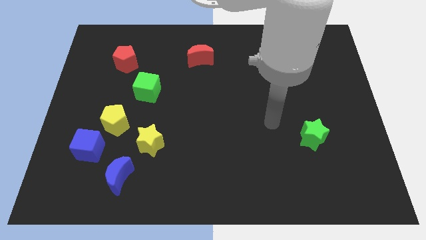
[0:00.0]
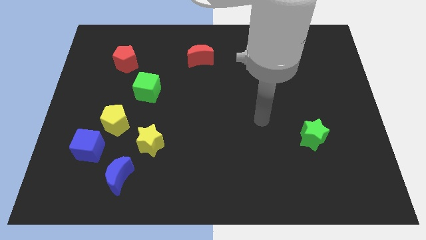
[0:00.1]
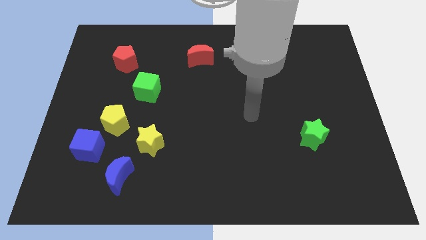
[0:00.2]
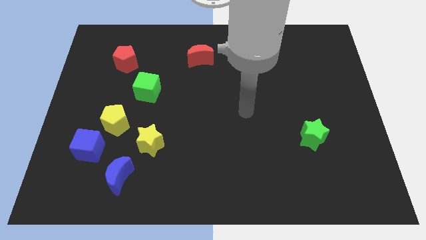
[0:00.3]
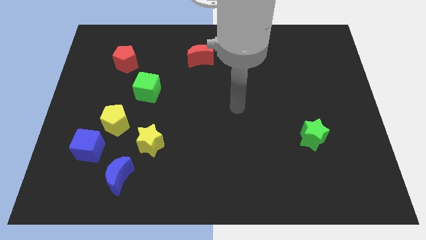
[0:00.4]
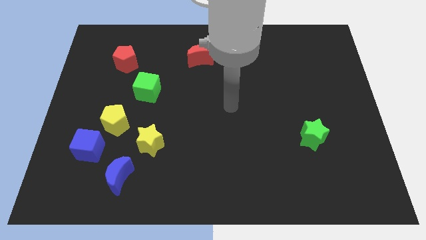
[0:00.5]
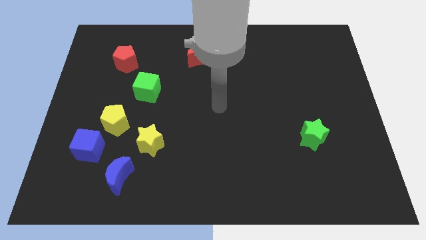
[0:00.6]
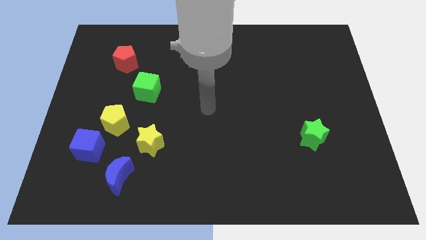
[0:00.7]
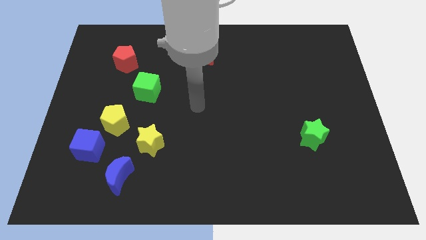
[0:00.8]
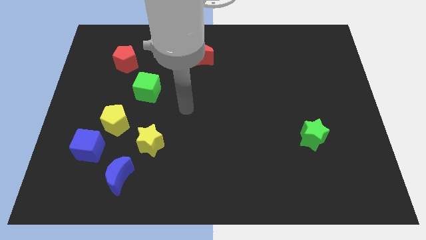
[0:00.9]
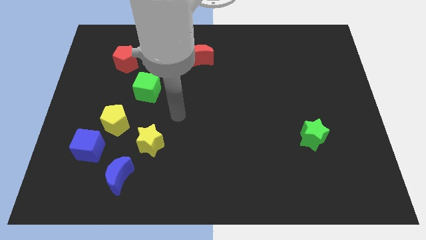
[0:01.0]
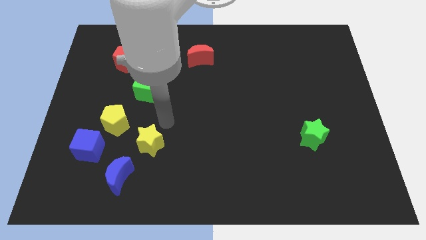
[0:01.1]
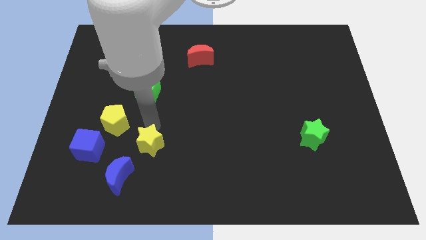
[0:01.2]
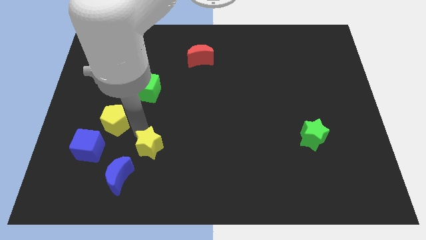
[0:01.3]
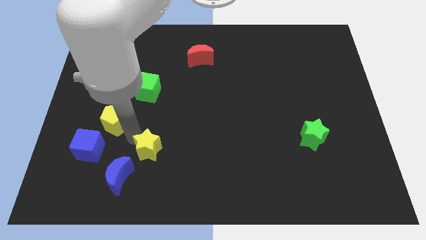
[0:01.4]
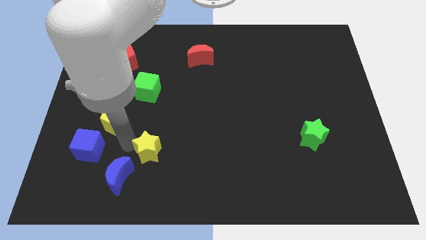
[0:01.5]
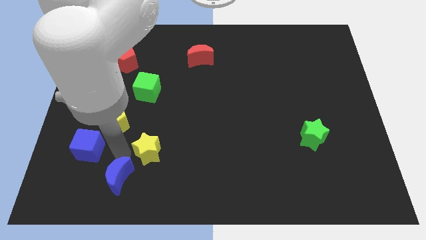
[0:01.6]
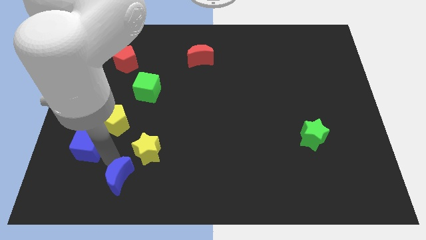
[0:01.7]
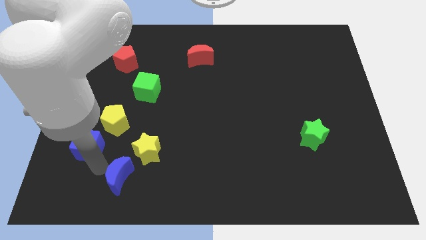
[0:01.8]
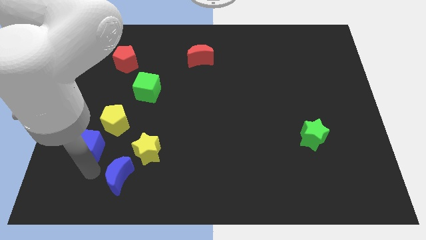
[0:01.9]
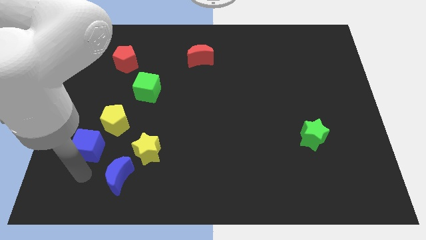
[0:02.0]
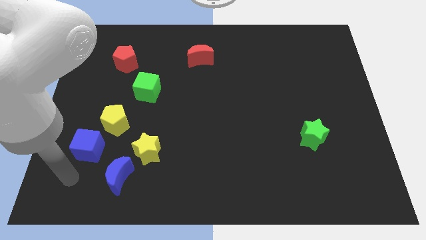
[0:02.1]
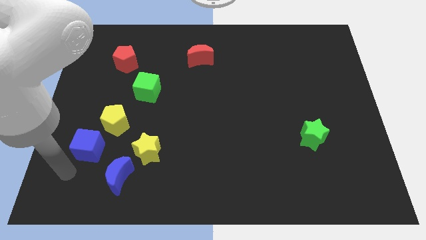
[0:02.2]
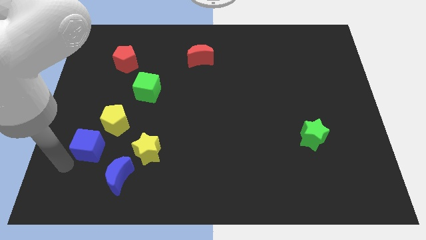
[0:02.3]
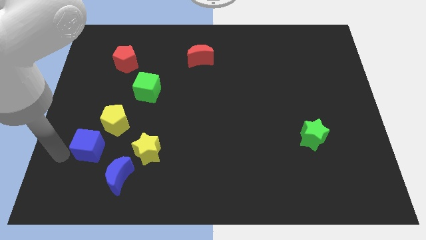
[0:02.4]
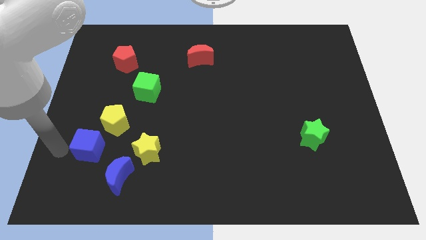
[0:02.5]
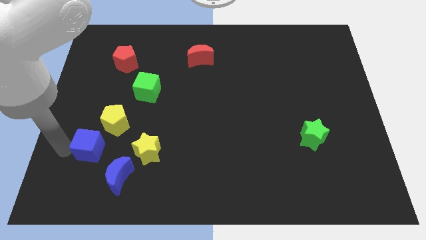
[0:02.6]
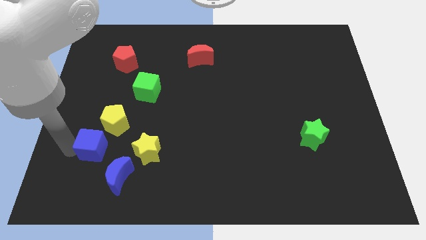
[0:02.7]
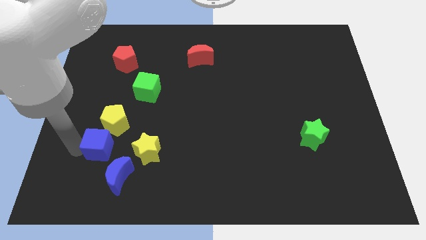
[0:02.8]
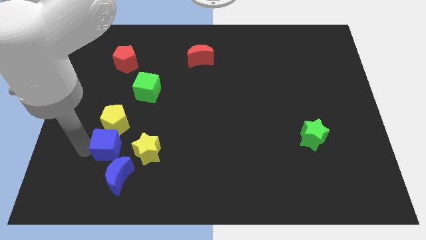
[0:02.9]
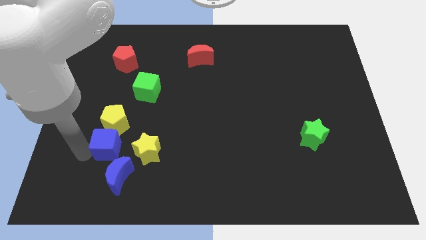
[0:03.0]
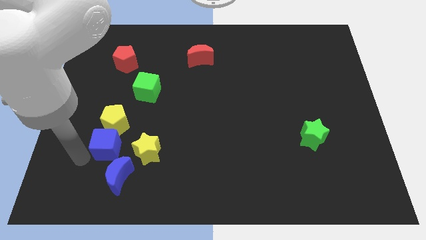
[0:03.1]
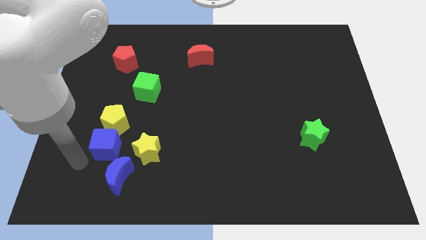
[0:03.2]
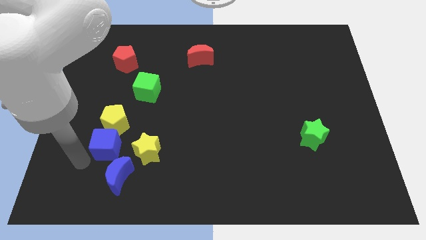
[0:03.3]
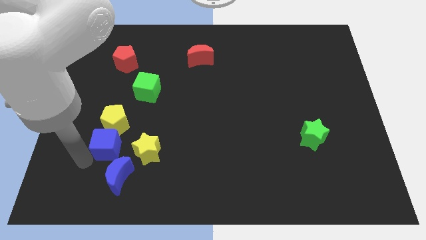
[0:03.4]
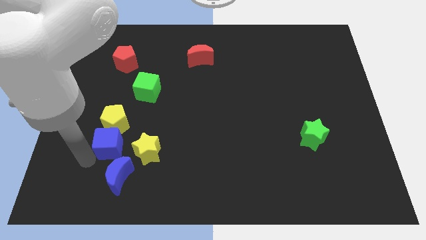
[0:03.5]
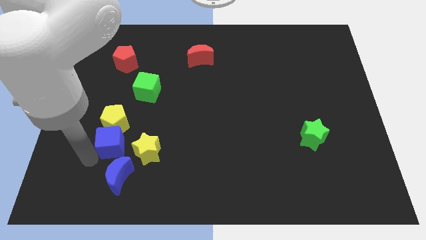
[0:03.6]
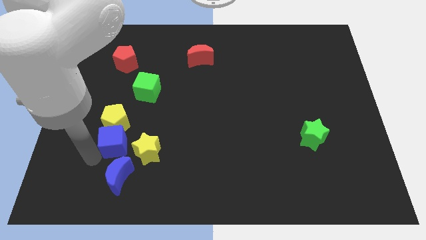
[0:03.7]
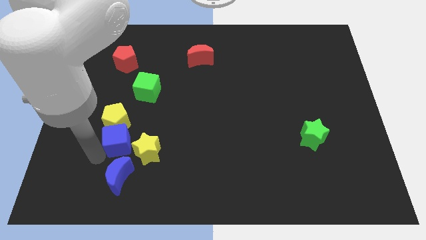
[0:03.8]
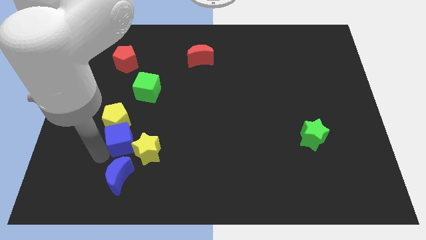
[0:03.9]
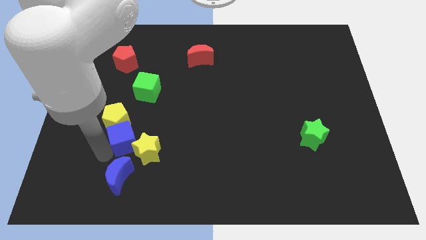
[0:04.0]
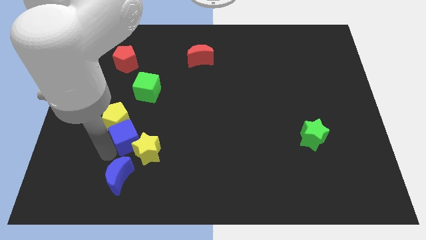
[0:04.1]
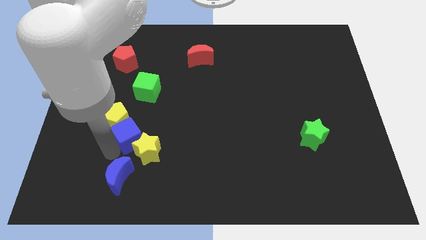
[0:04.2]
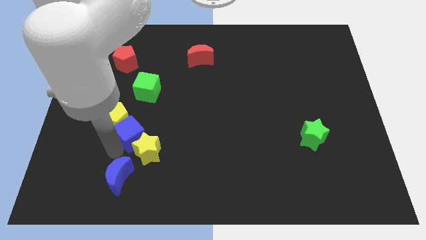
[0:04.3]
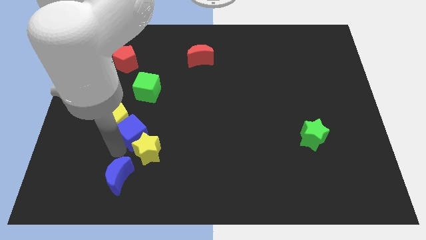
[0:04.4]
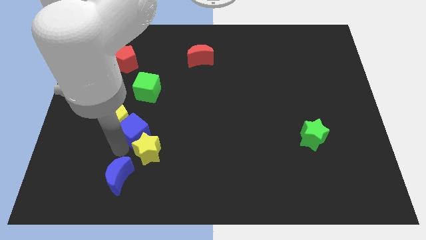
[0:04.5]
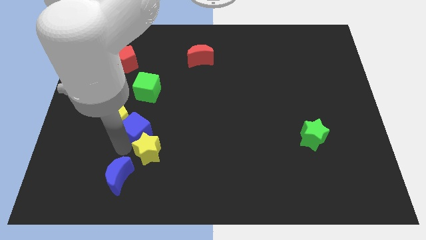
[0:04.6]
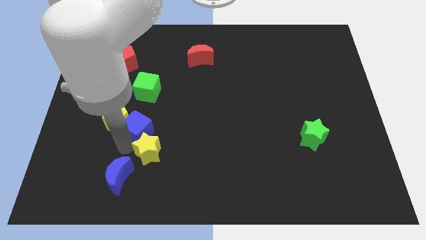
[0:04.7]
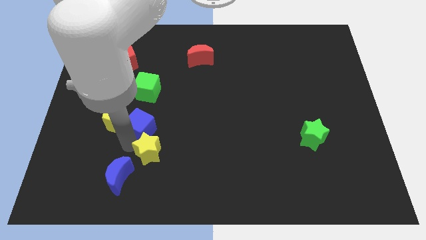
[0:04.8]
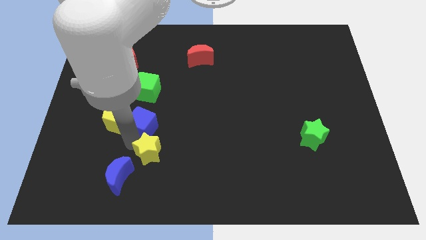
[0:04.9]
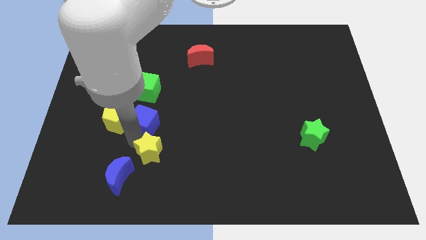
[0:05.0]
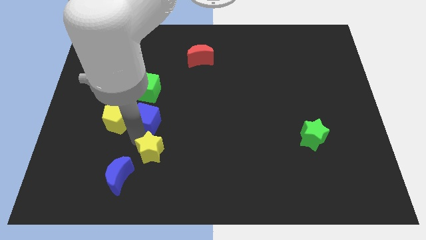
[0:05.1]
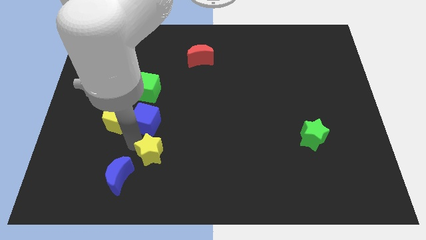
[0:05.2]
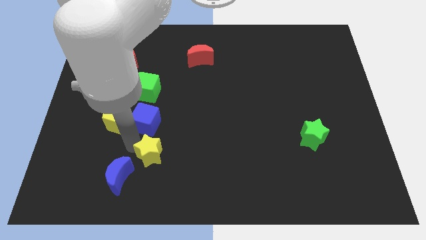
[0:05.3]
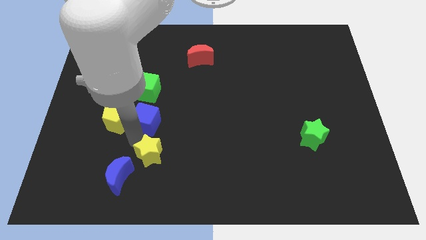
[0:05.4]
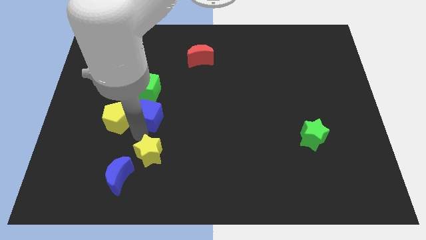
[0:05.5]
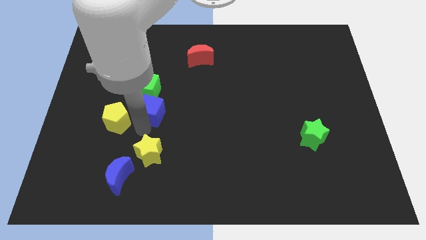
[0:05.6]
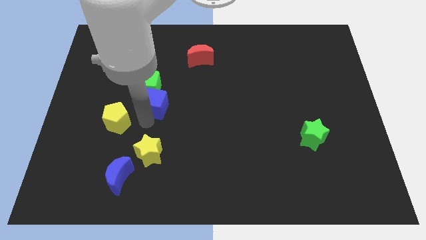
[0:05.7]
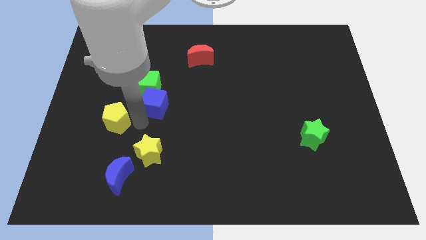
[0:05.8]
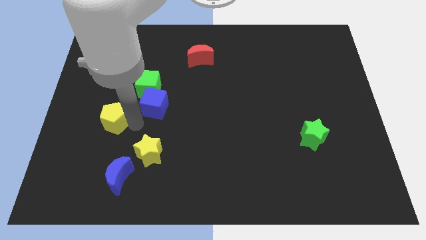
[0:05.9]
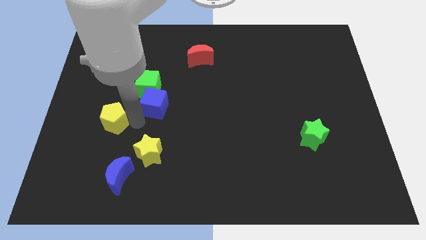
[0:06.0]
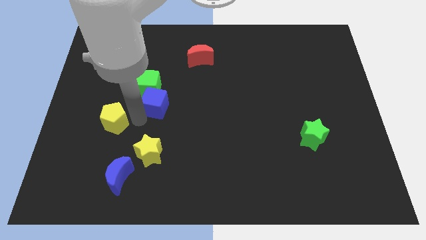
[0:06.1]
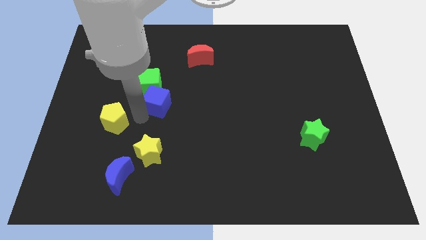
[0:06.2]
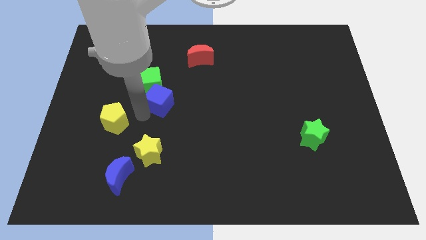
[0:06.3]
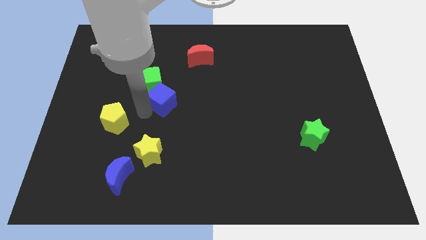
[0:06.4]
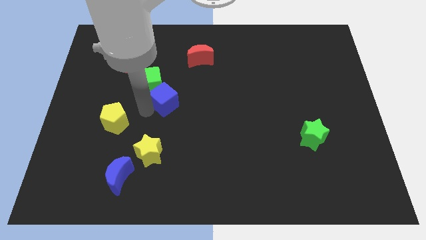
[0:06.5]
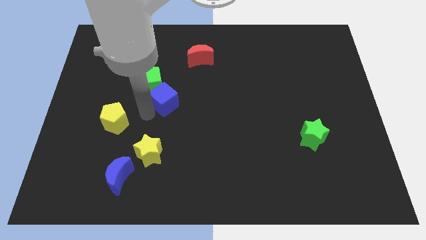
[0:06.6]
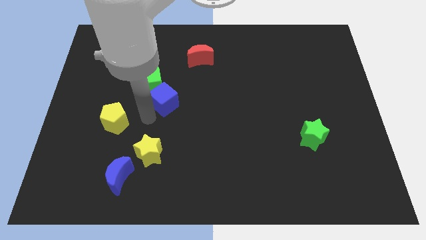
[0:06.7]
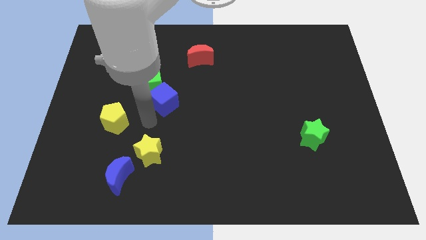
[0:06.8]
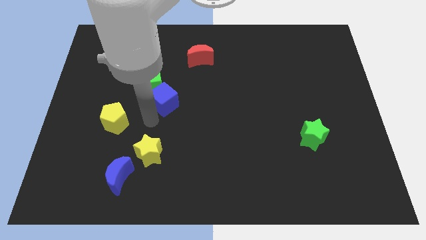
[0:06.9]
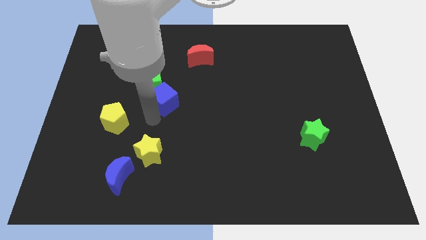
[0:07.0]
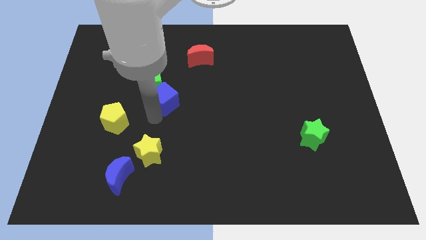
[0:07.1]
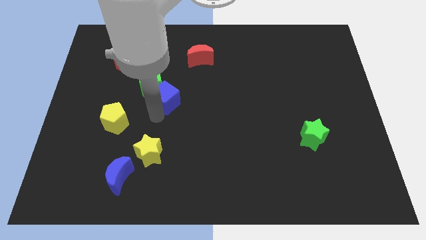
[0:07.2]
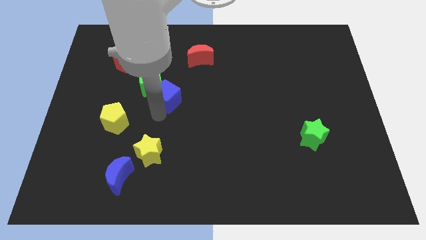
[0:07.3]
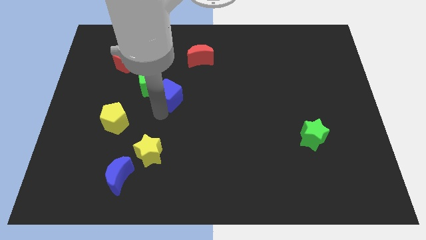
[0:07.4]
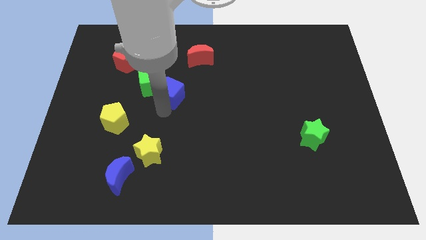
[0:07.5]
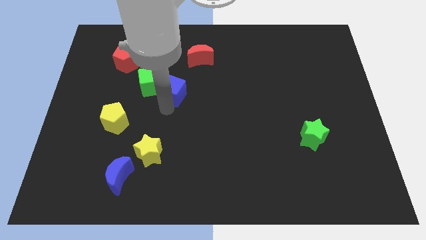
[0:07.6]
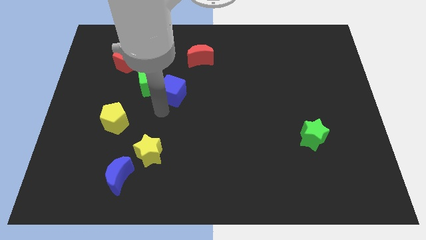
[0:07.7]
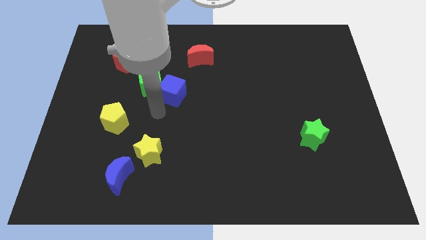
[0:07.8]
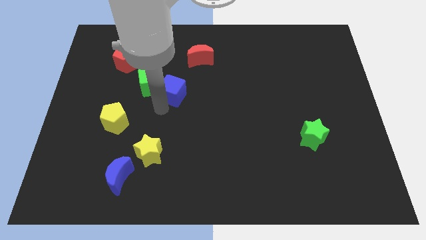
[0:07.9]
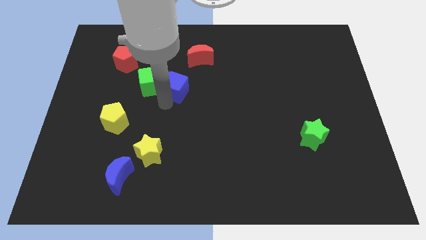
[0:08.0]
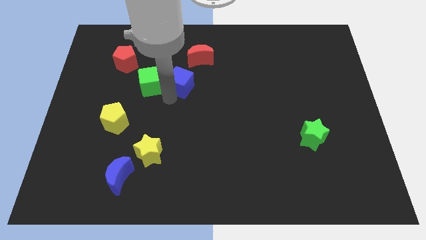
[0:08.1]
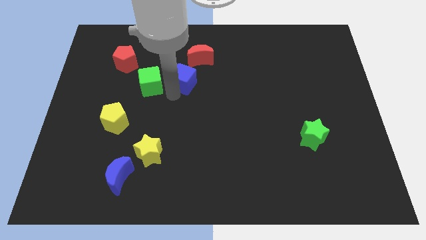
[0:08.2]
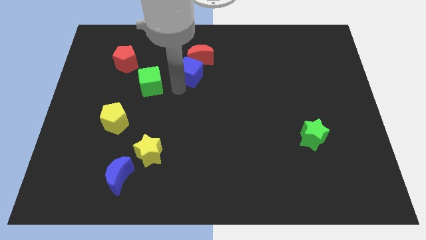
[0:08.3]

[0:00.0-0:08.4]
move the blue cube to the red moon
